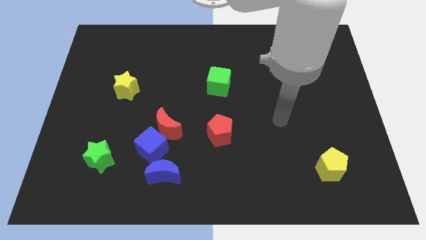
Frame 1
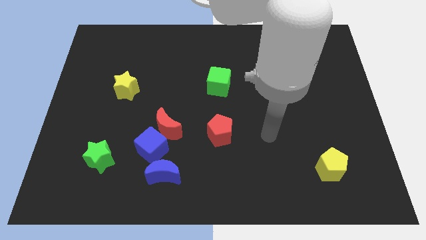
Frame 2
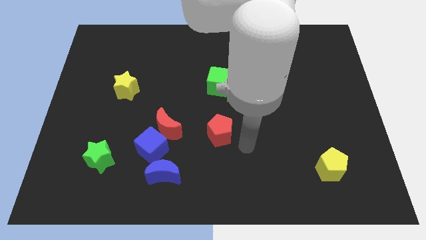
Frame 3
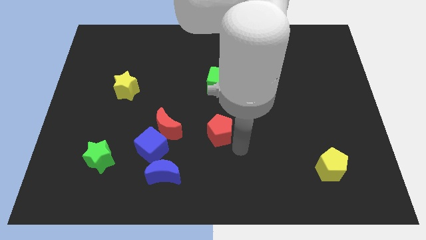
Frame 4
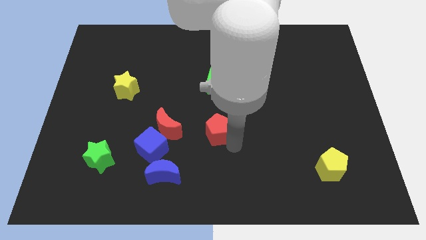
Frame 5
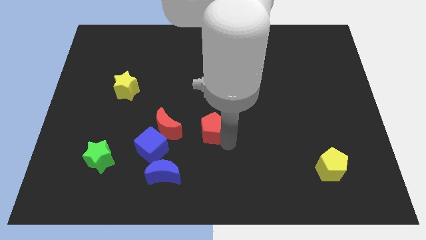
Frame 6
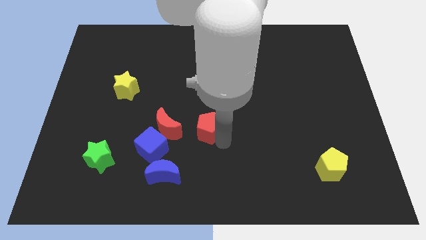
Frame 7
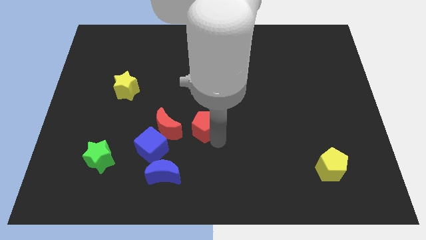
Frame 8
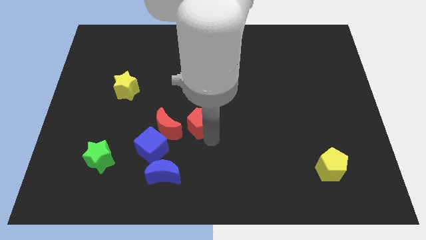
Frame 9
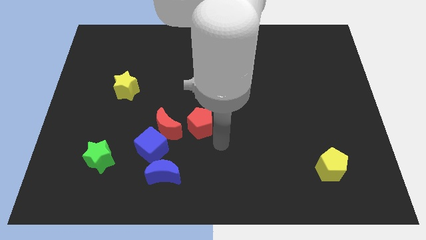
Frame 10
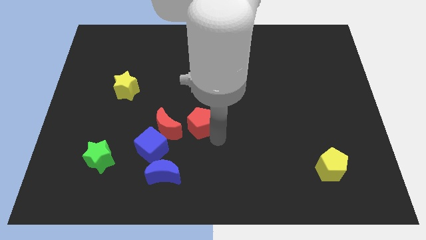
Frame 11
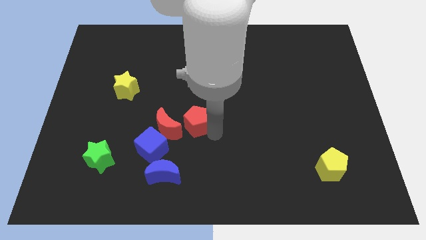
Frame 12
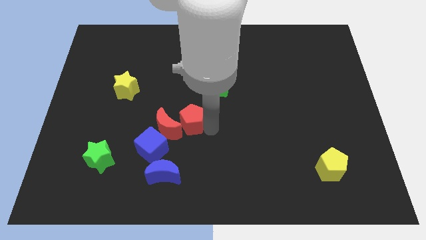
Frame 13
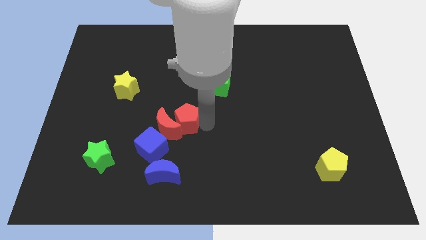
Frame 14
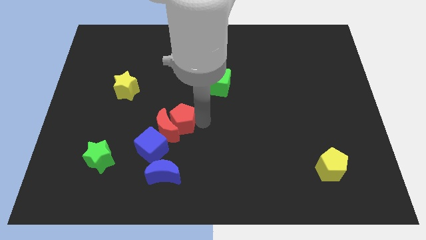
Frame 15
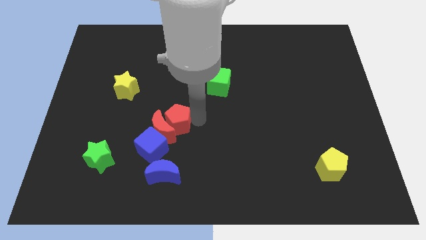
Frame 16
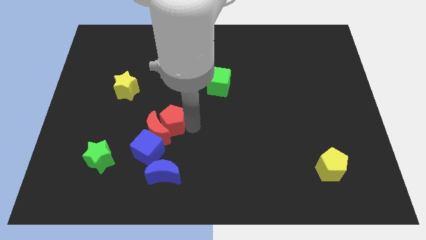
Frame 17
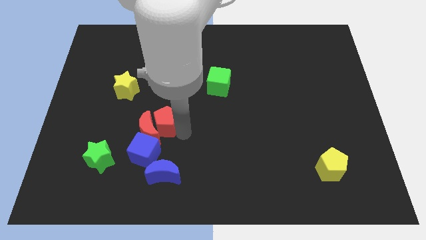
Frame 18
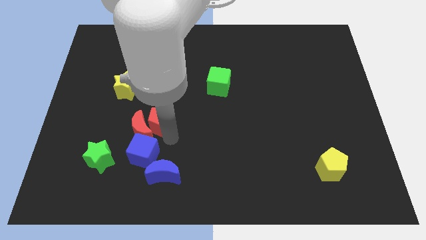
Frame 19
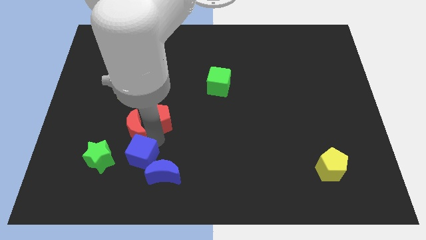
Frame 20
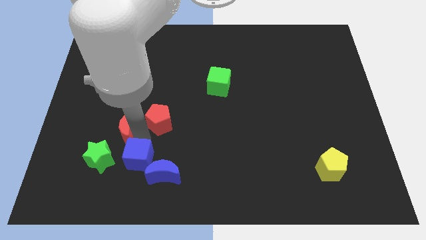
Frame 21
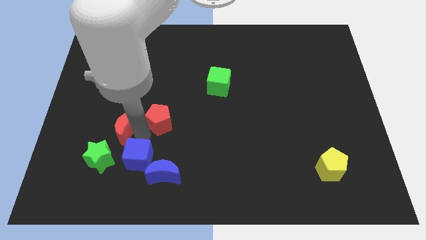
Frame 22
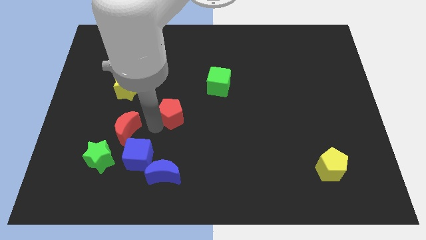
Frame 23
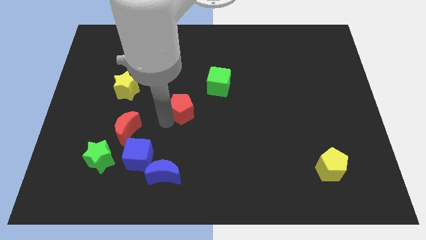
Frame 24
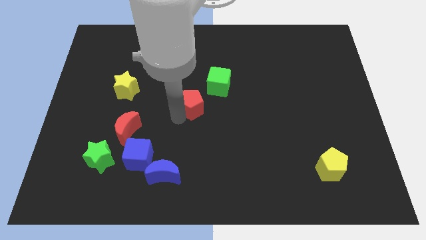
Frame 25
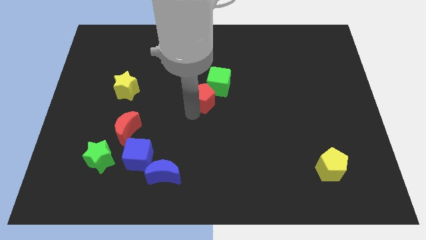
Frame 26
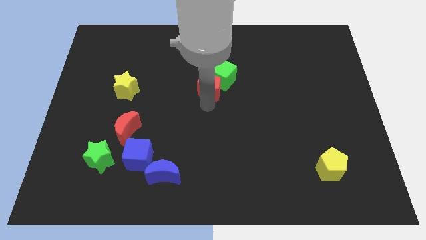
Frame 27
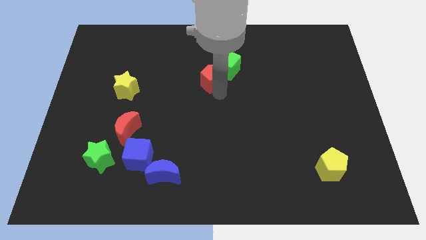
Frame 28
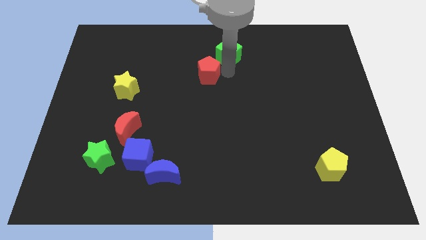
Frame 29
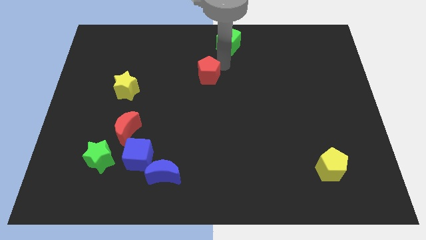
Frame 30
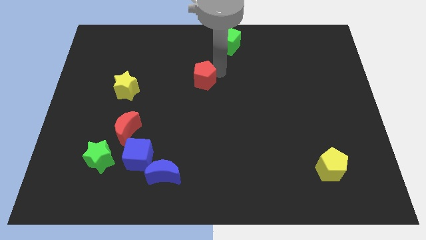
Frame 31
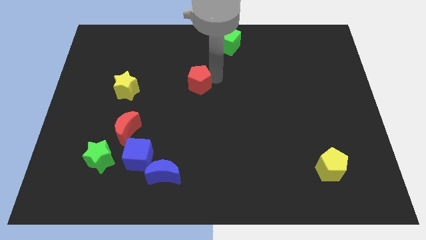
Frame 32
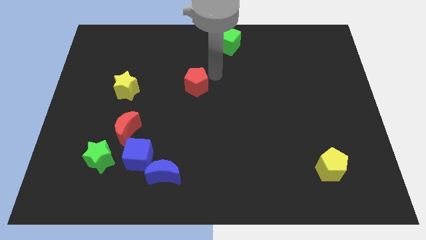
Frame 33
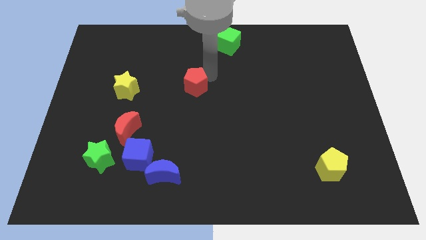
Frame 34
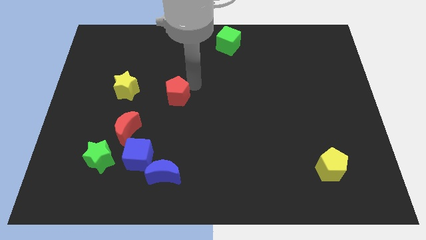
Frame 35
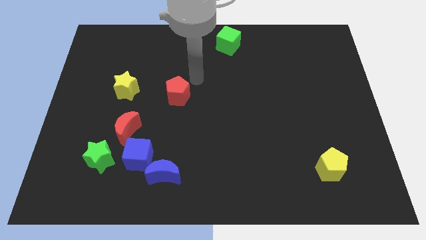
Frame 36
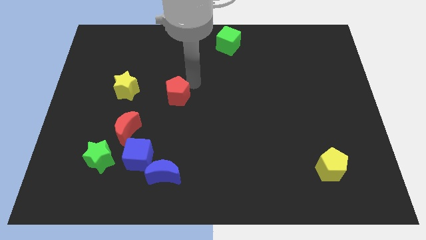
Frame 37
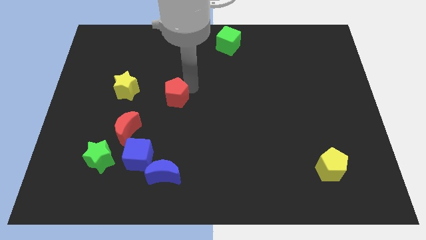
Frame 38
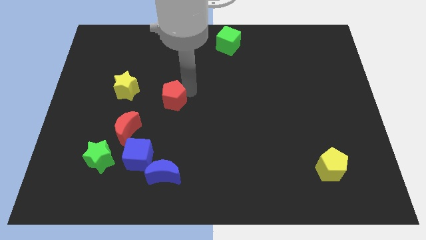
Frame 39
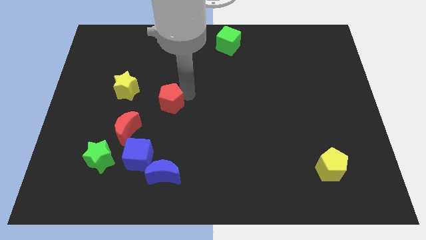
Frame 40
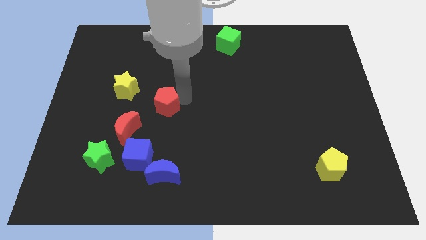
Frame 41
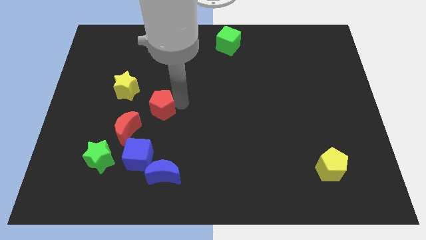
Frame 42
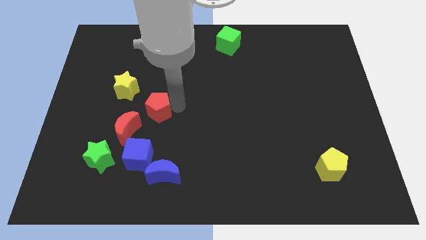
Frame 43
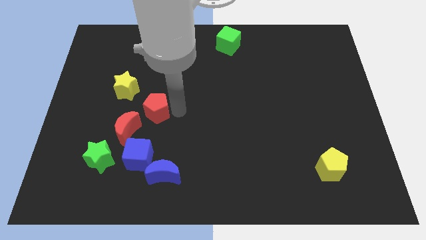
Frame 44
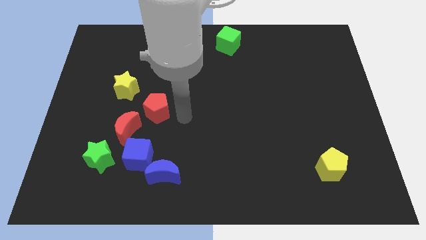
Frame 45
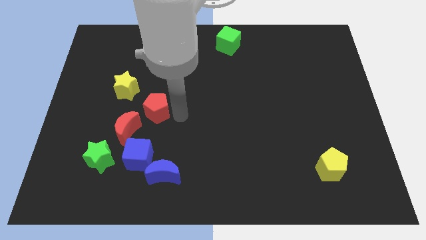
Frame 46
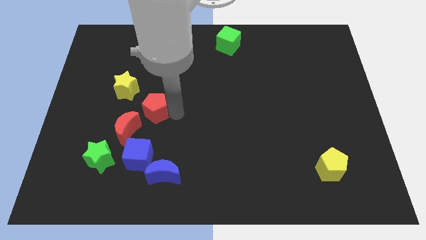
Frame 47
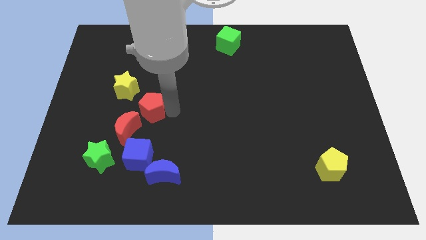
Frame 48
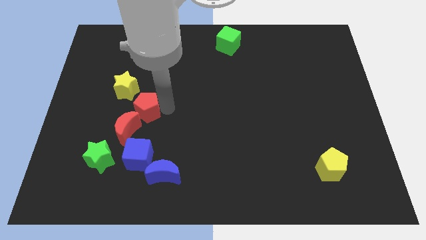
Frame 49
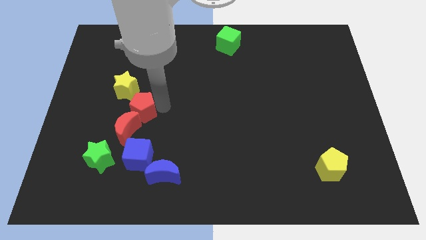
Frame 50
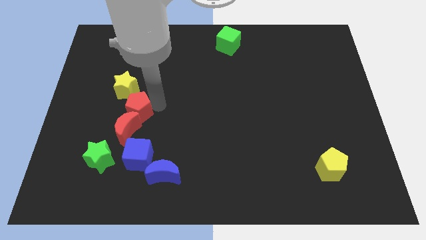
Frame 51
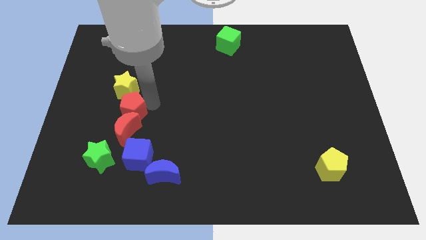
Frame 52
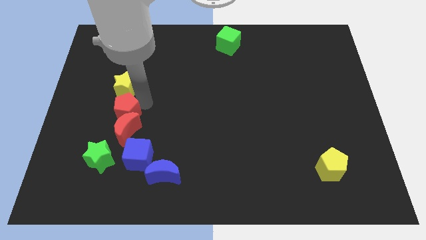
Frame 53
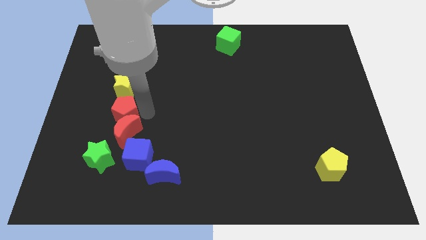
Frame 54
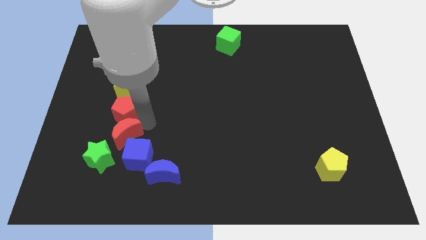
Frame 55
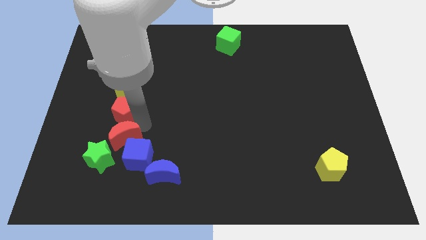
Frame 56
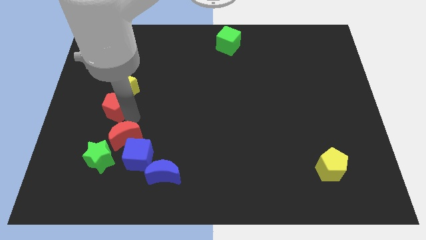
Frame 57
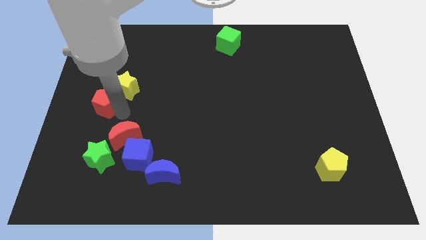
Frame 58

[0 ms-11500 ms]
put the red pentagon to the left side of the board
